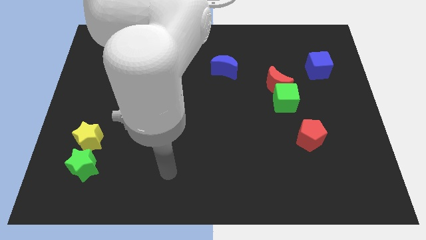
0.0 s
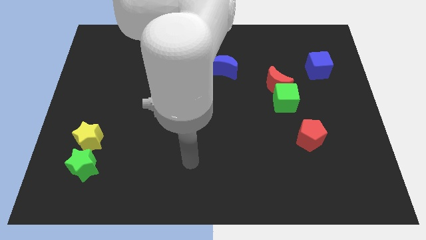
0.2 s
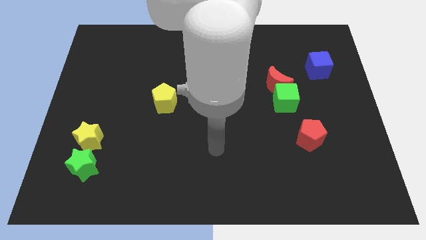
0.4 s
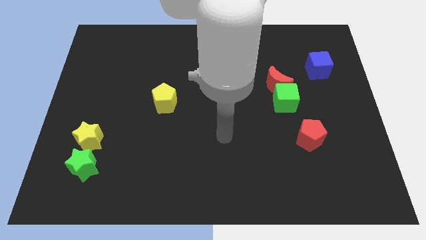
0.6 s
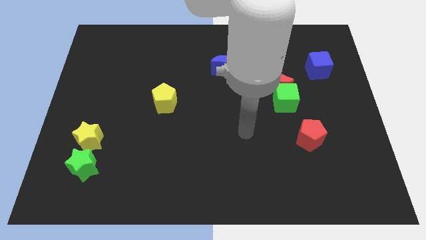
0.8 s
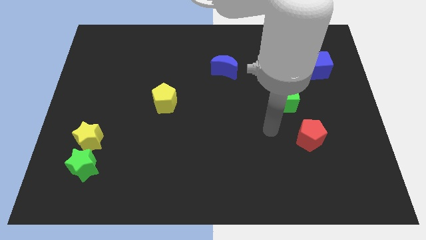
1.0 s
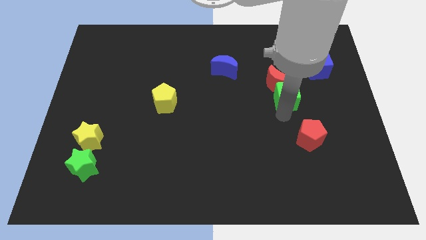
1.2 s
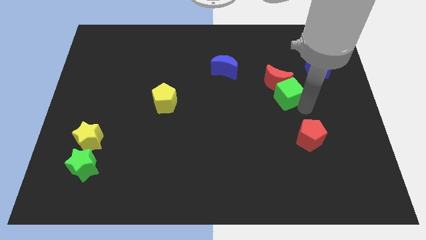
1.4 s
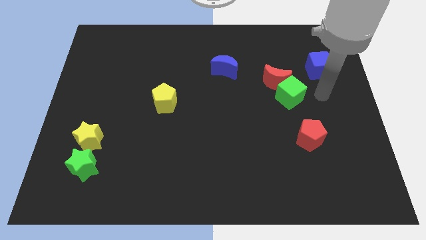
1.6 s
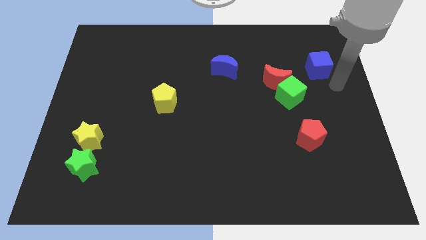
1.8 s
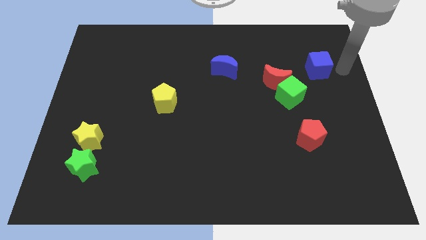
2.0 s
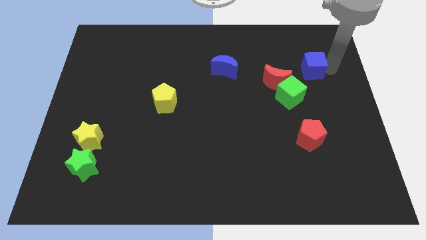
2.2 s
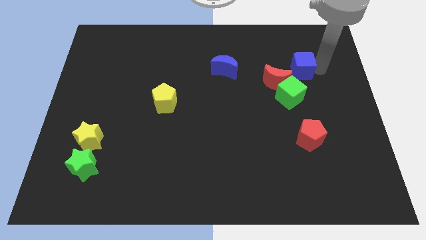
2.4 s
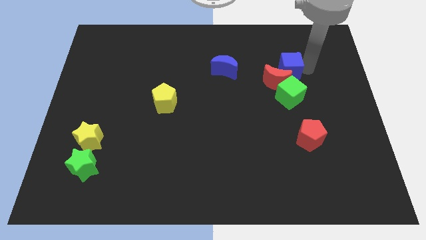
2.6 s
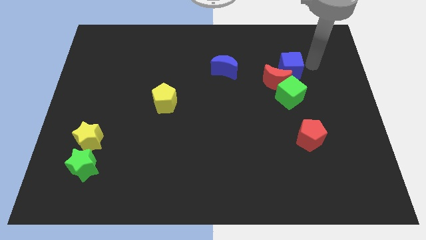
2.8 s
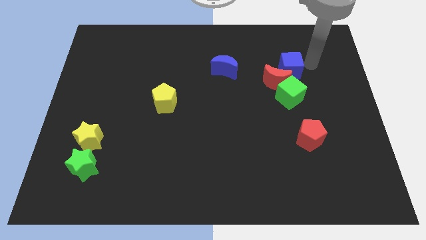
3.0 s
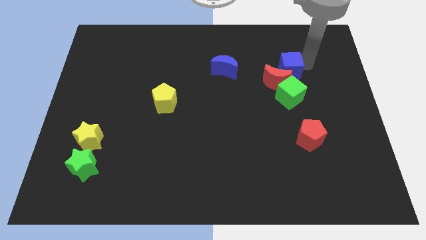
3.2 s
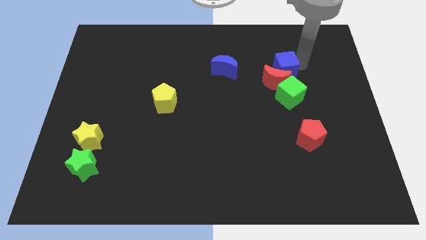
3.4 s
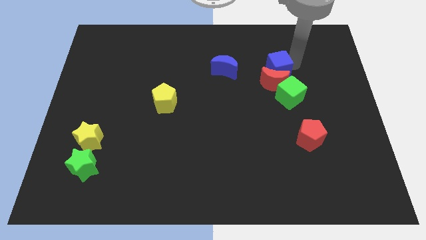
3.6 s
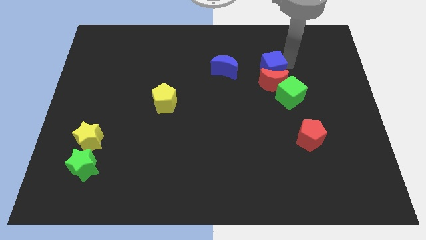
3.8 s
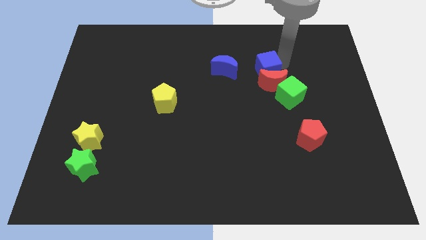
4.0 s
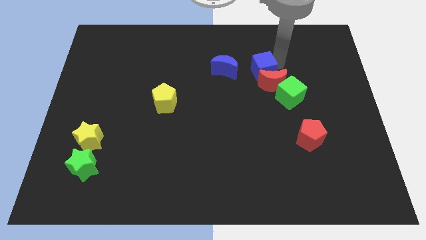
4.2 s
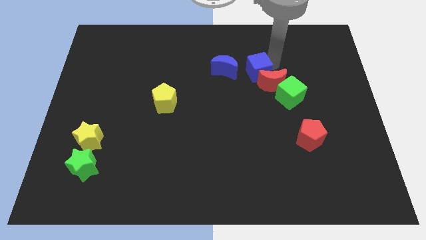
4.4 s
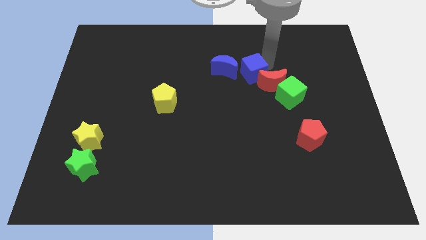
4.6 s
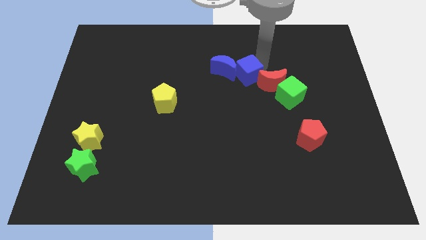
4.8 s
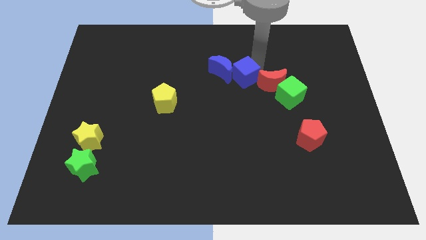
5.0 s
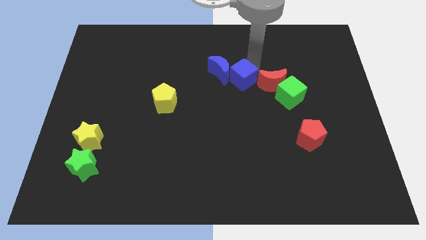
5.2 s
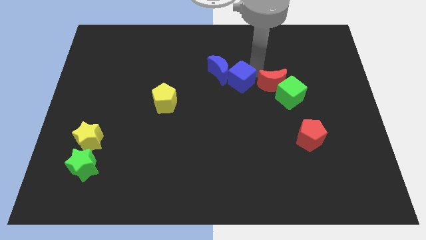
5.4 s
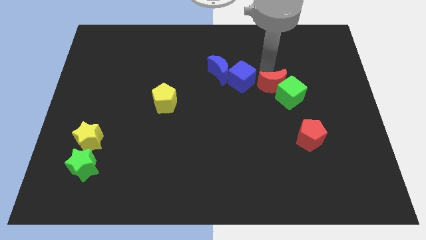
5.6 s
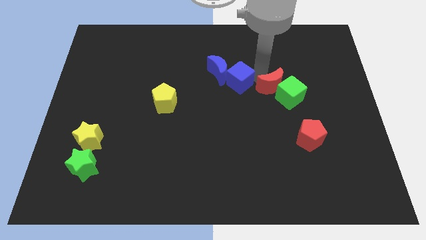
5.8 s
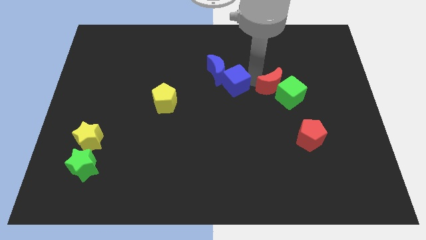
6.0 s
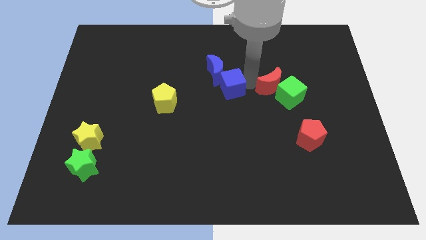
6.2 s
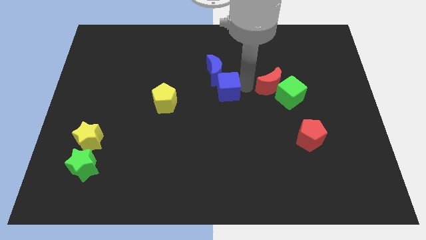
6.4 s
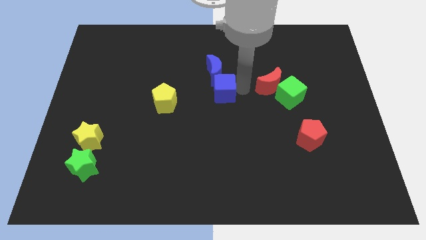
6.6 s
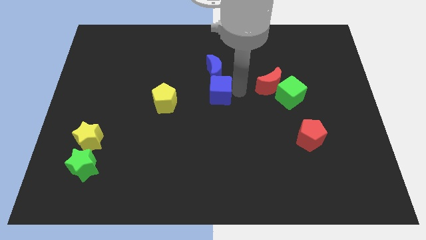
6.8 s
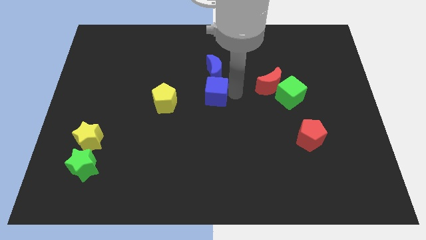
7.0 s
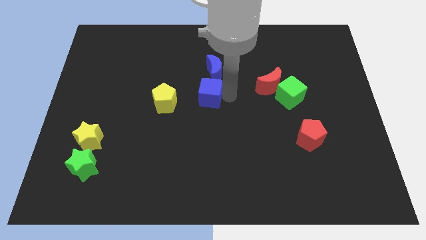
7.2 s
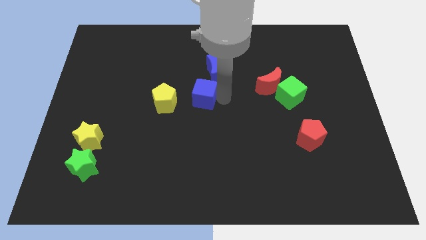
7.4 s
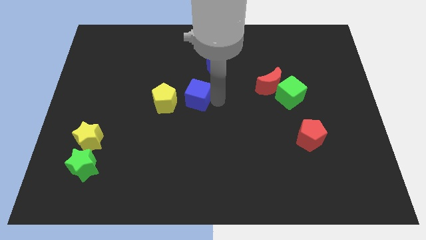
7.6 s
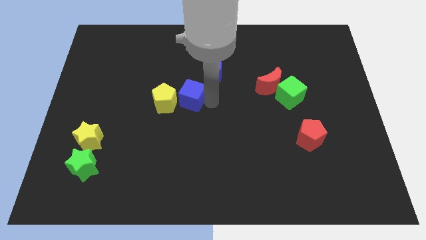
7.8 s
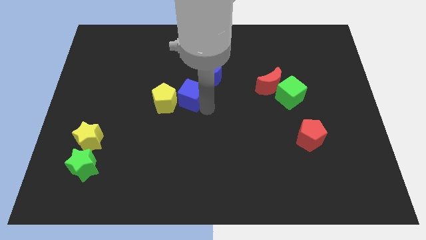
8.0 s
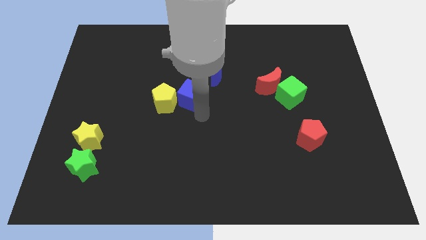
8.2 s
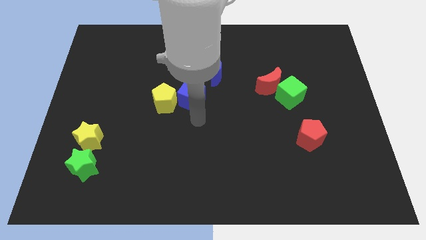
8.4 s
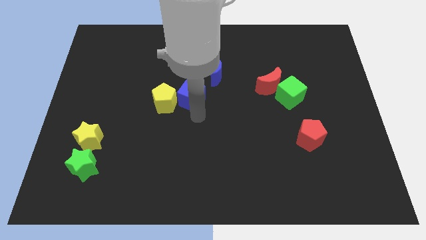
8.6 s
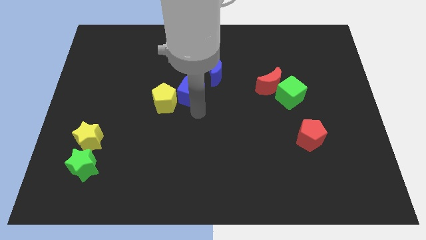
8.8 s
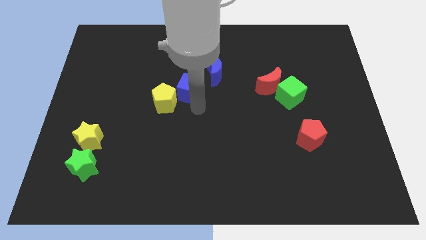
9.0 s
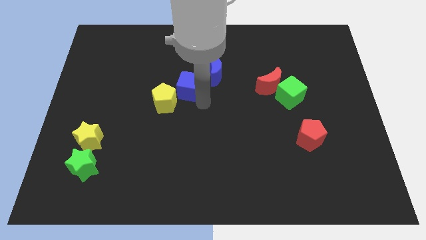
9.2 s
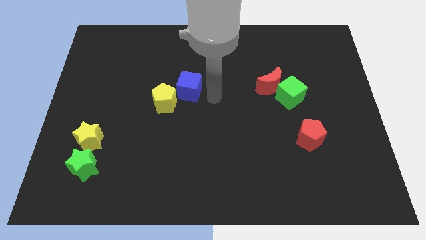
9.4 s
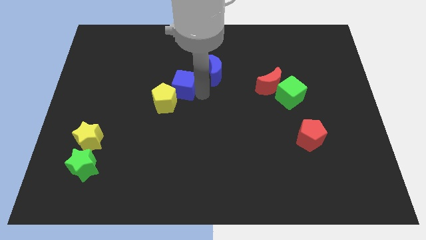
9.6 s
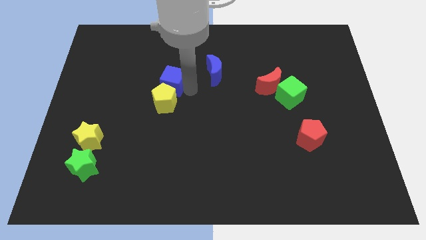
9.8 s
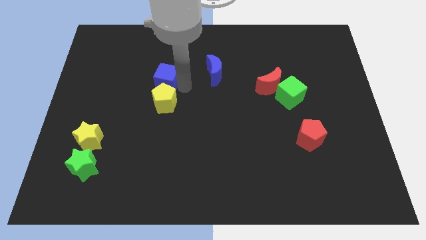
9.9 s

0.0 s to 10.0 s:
put the blue cube to the top left of the yellow pentagon

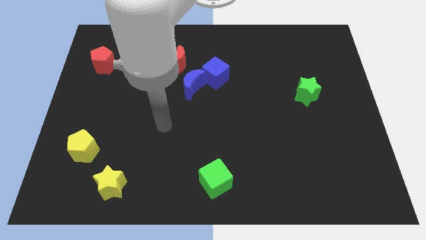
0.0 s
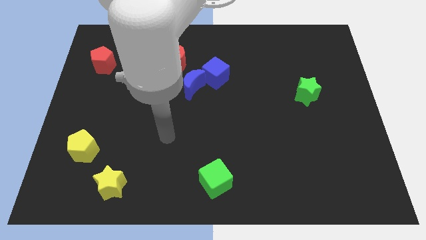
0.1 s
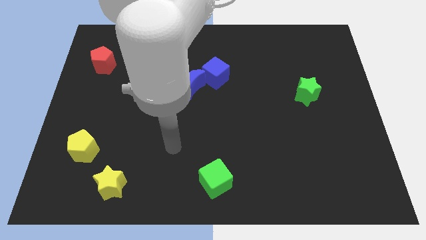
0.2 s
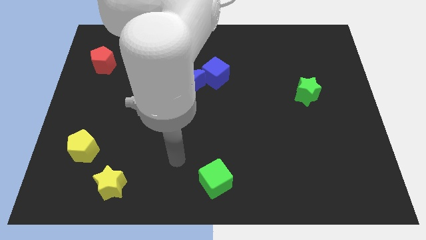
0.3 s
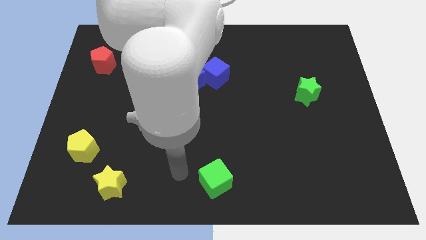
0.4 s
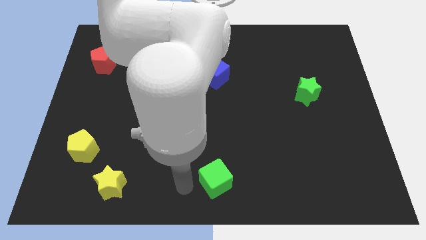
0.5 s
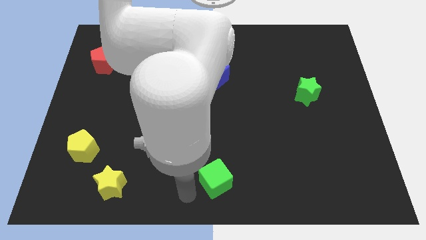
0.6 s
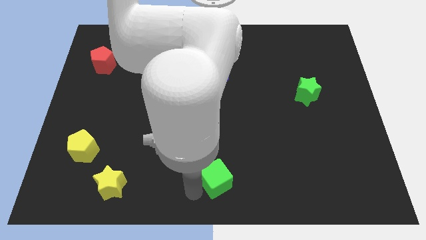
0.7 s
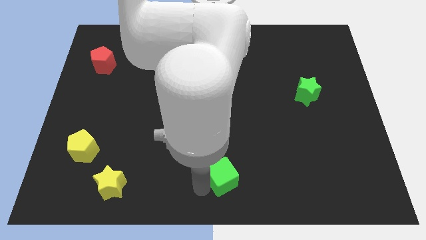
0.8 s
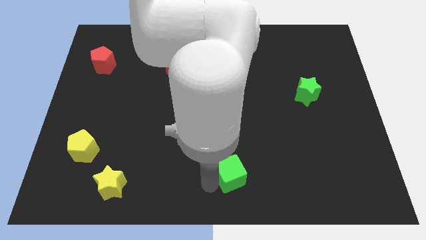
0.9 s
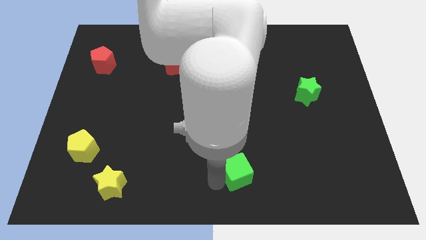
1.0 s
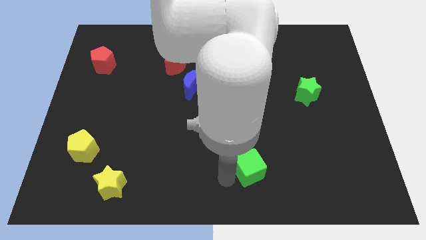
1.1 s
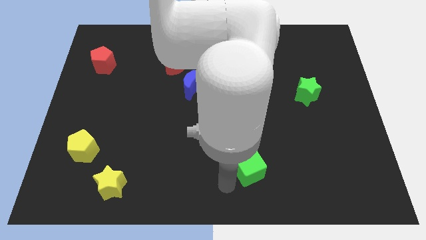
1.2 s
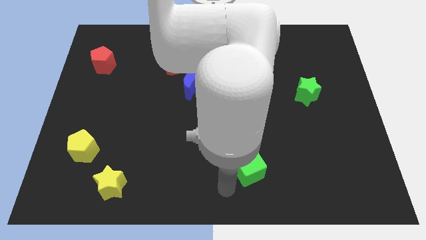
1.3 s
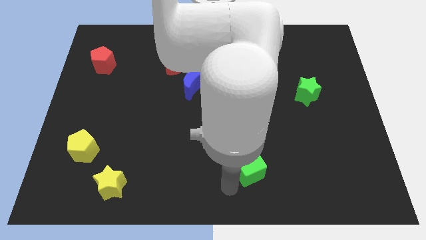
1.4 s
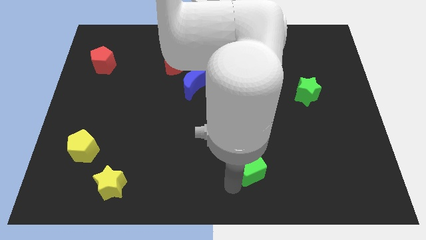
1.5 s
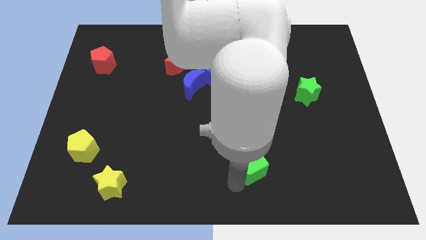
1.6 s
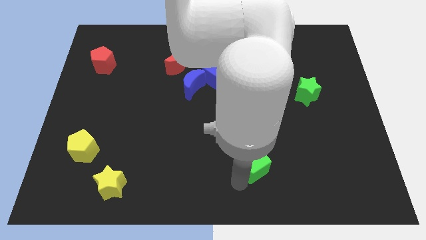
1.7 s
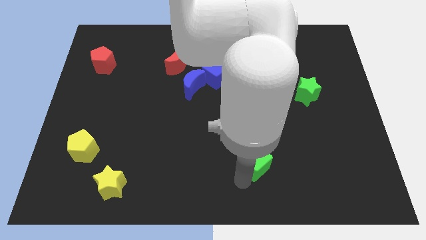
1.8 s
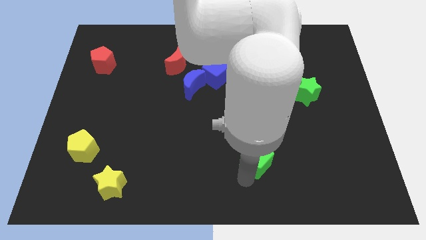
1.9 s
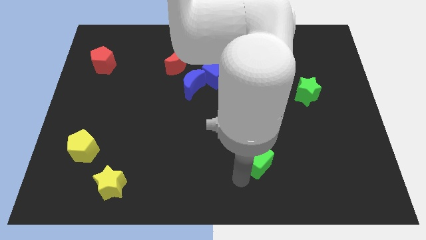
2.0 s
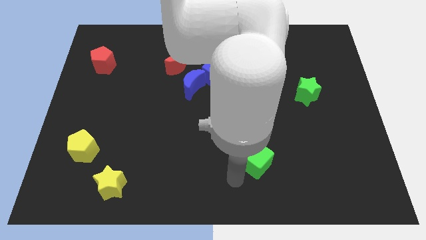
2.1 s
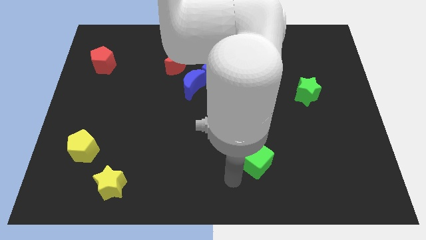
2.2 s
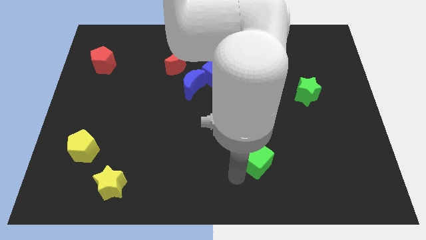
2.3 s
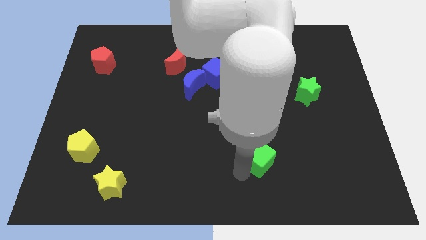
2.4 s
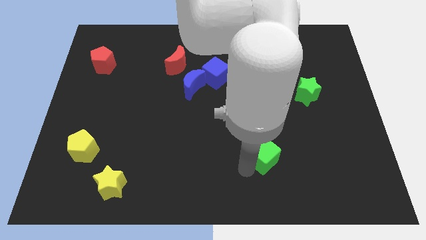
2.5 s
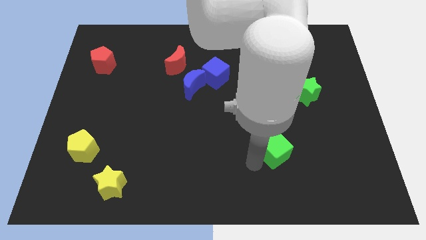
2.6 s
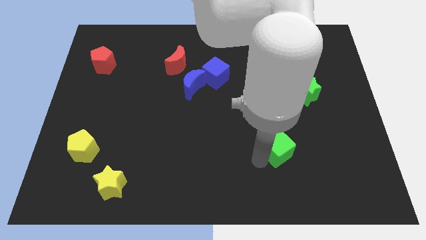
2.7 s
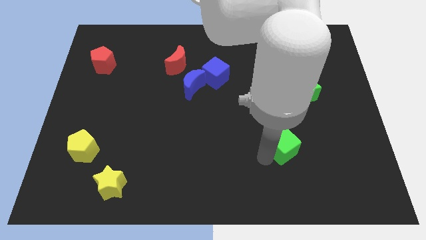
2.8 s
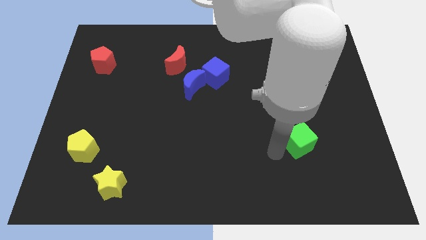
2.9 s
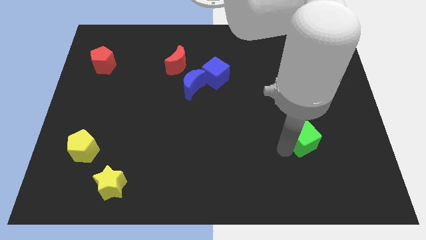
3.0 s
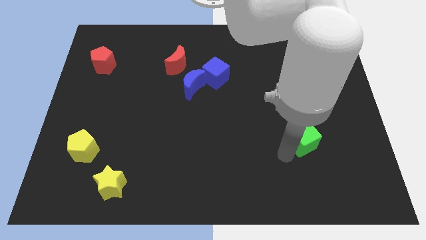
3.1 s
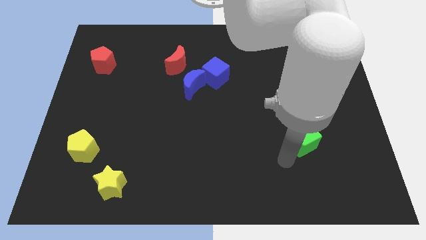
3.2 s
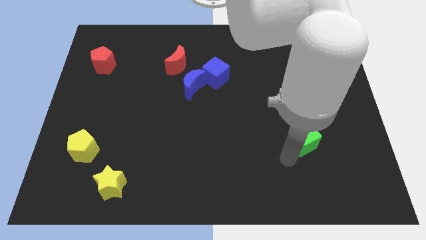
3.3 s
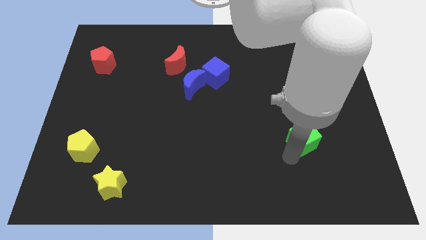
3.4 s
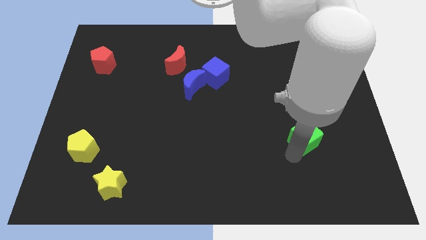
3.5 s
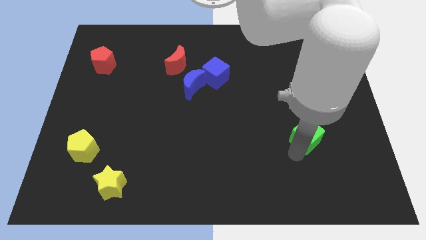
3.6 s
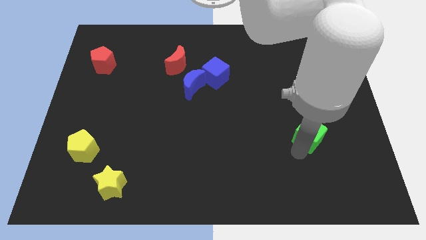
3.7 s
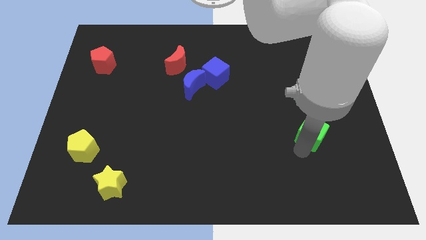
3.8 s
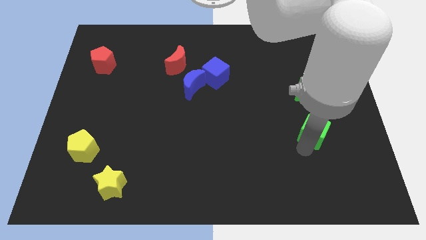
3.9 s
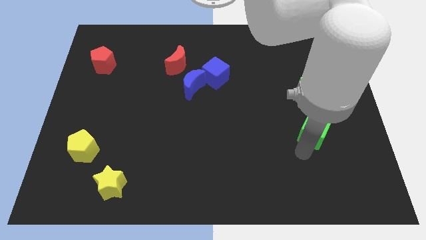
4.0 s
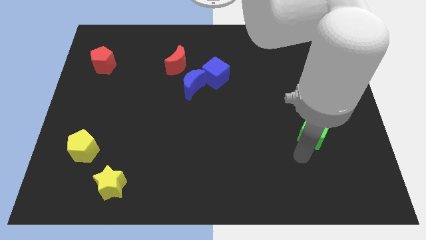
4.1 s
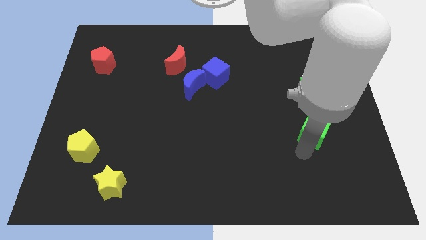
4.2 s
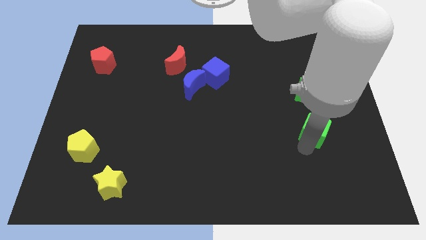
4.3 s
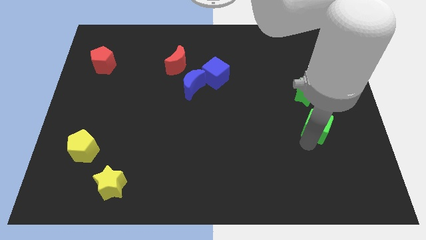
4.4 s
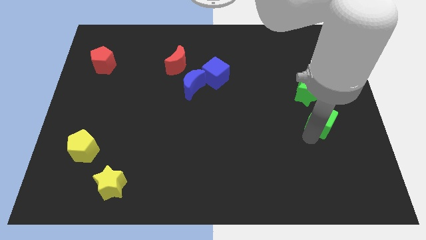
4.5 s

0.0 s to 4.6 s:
push the green cube to the bottom right of the green star
